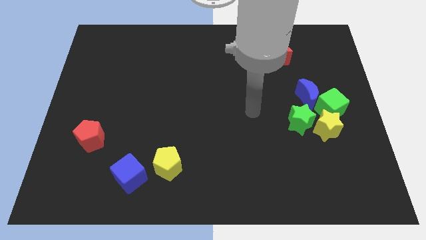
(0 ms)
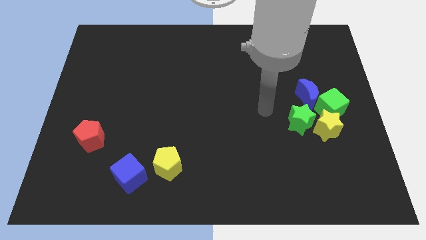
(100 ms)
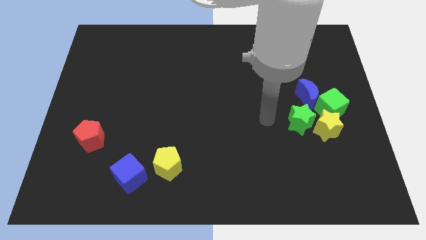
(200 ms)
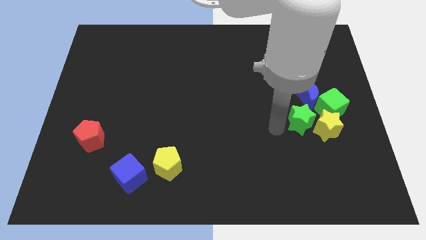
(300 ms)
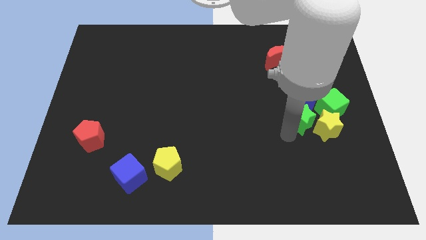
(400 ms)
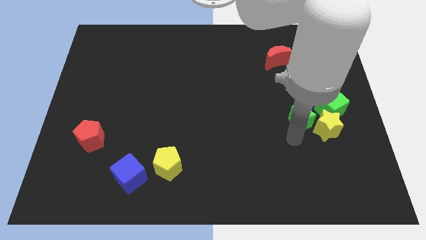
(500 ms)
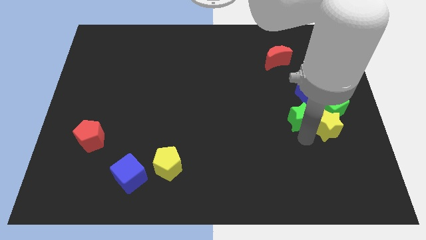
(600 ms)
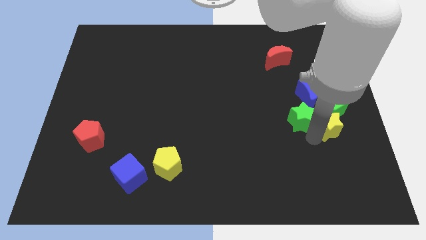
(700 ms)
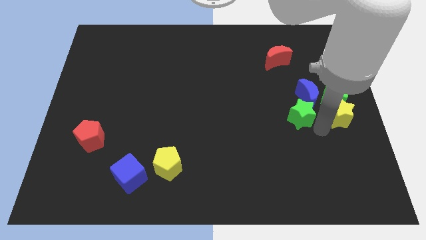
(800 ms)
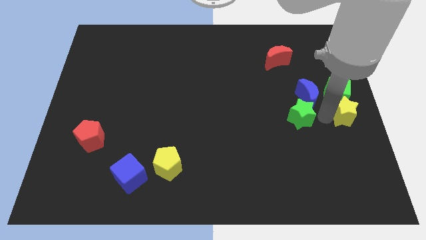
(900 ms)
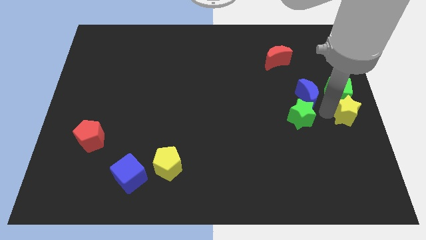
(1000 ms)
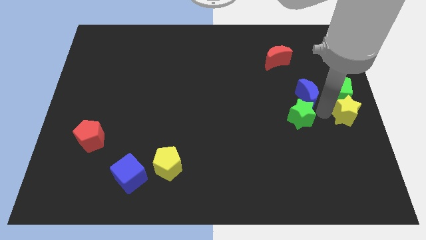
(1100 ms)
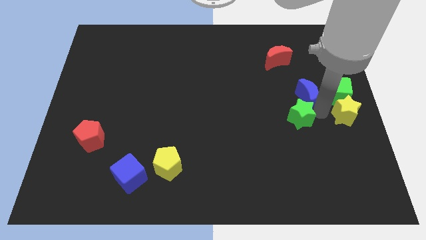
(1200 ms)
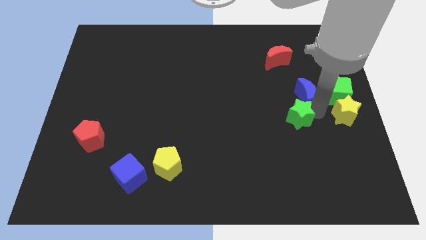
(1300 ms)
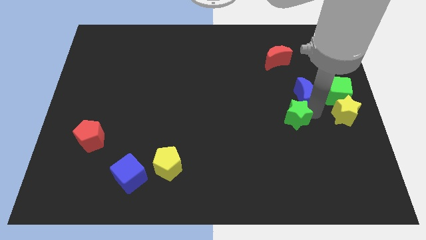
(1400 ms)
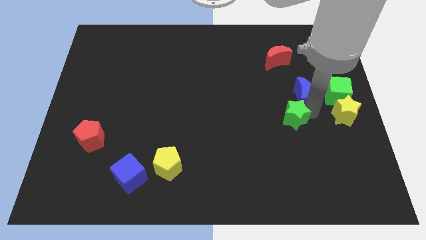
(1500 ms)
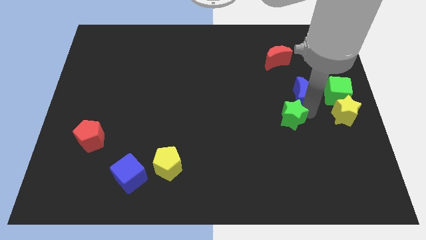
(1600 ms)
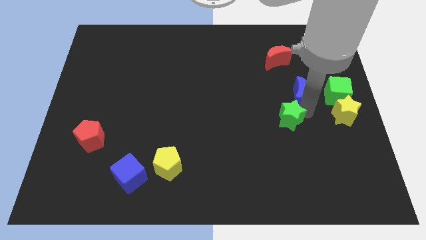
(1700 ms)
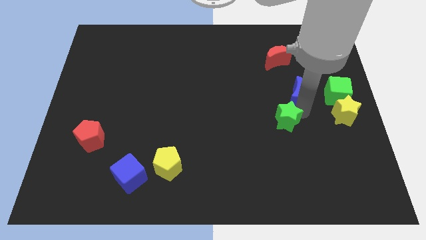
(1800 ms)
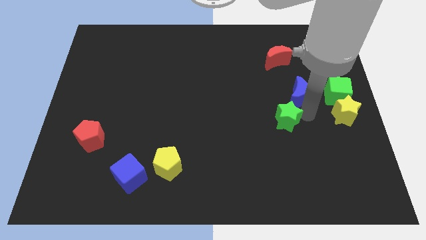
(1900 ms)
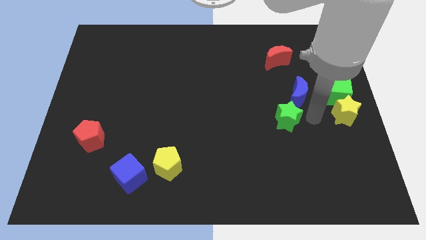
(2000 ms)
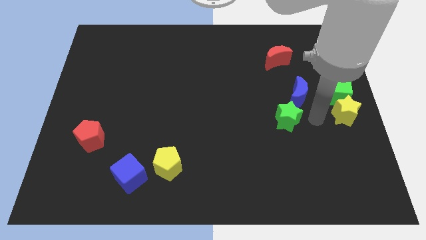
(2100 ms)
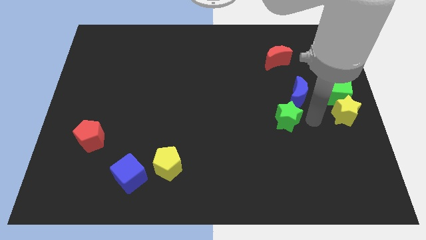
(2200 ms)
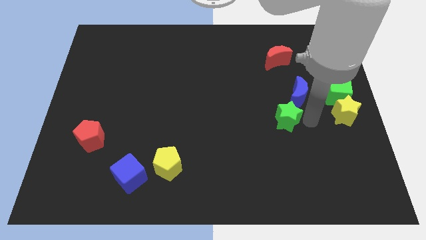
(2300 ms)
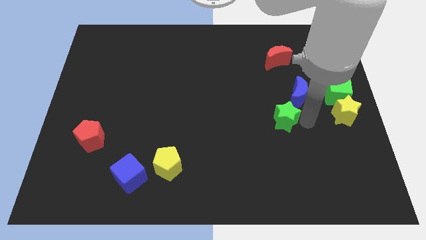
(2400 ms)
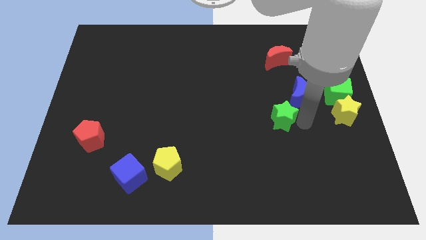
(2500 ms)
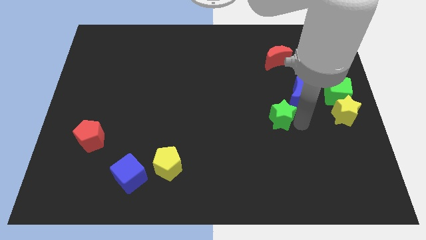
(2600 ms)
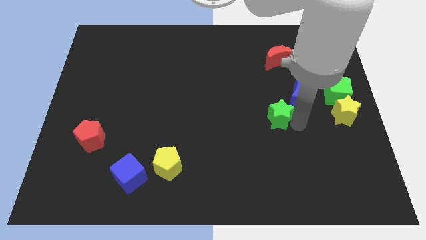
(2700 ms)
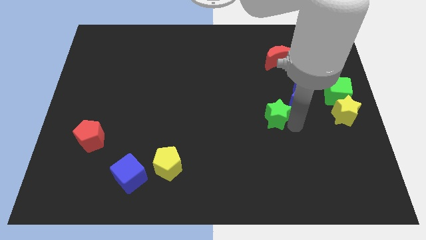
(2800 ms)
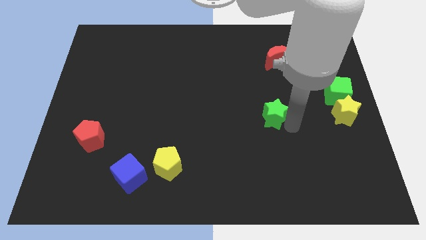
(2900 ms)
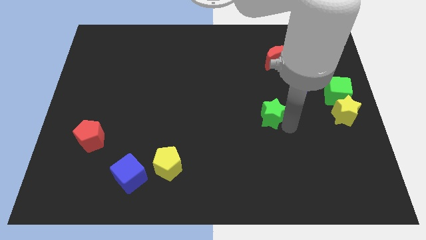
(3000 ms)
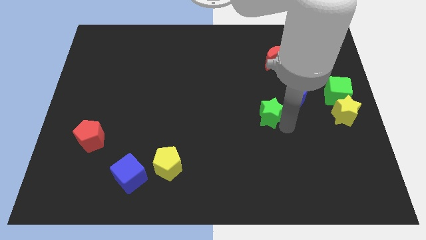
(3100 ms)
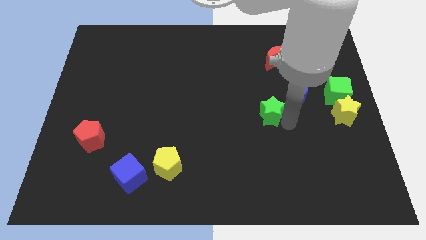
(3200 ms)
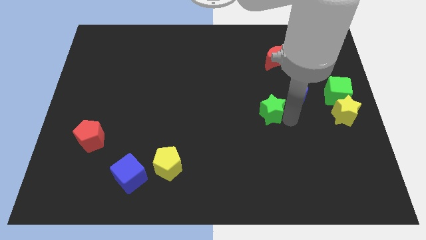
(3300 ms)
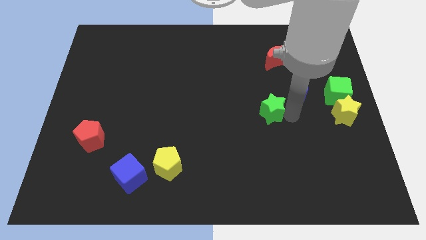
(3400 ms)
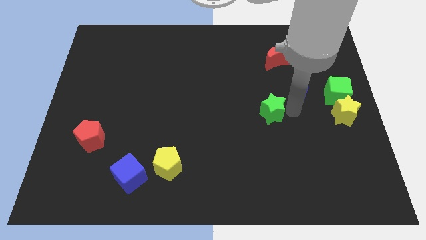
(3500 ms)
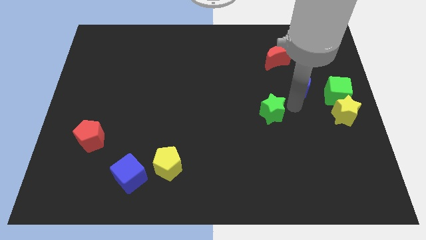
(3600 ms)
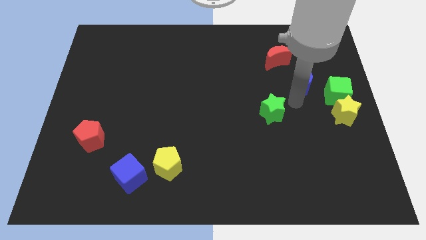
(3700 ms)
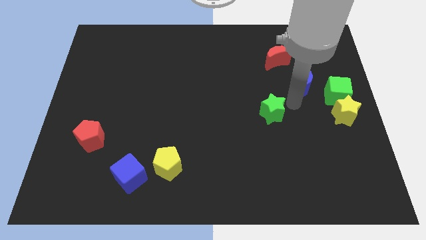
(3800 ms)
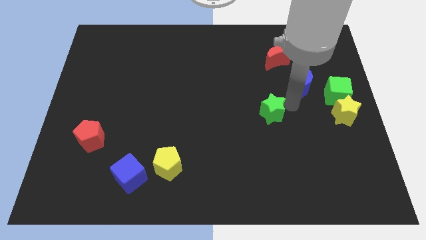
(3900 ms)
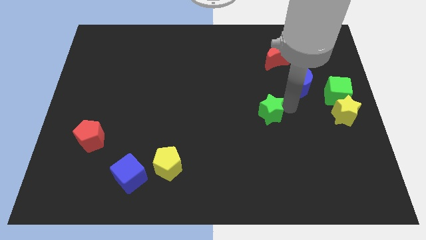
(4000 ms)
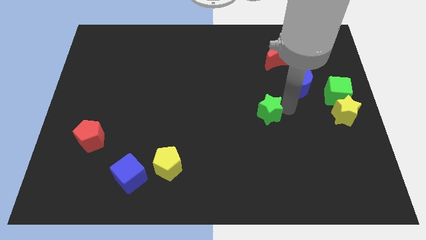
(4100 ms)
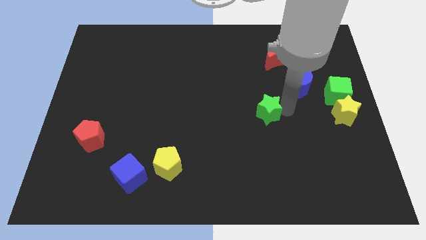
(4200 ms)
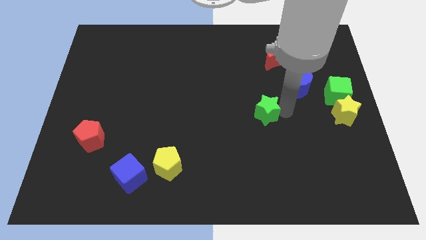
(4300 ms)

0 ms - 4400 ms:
slide the green star a bit to the left

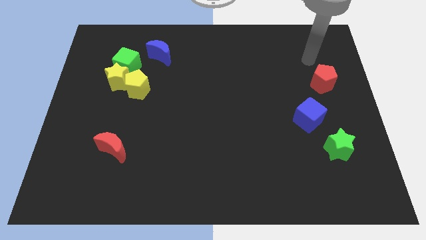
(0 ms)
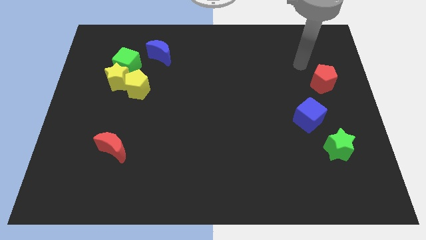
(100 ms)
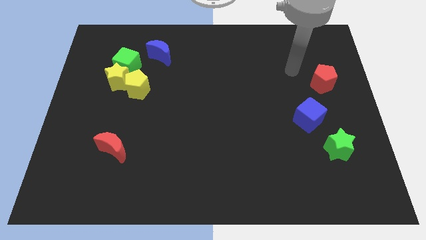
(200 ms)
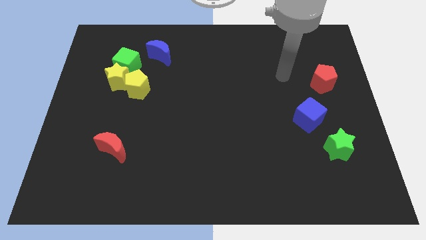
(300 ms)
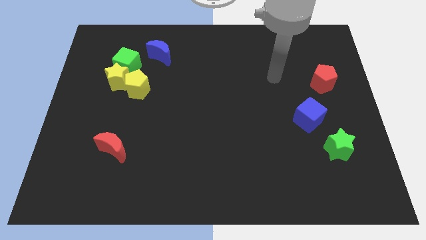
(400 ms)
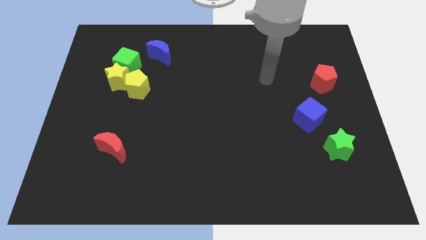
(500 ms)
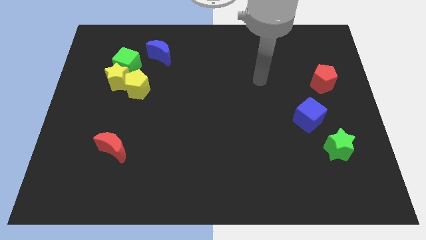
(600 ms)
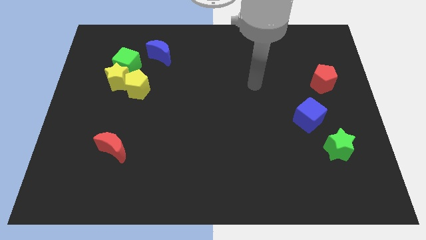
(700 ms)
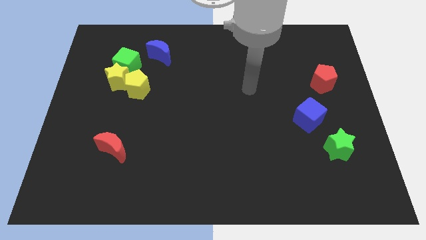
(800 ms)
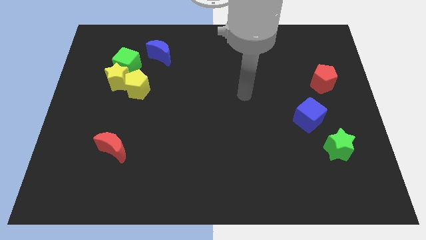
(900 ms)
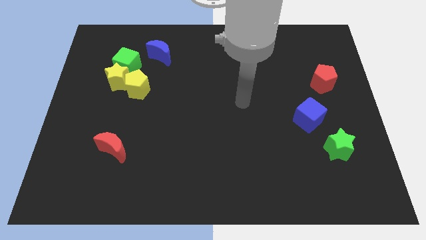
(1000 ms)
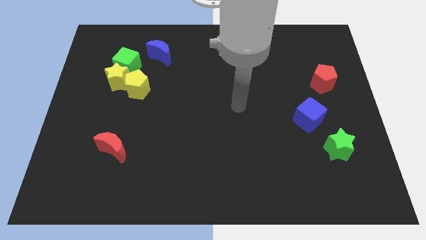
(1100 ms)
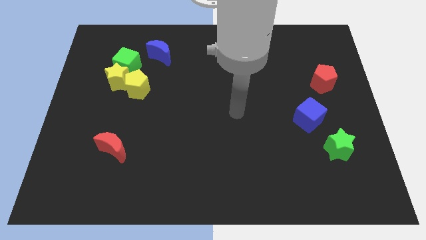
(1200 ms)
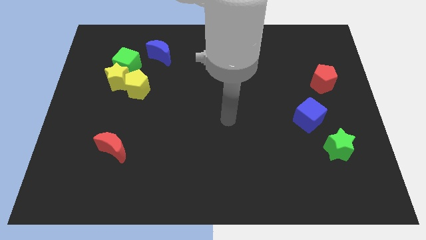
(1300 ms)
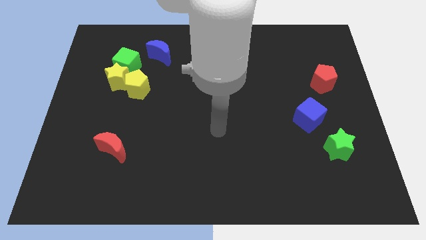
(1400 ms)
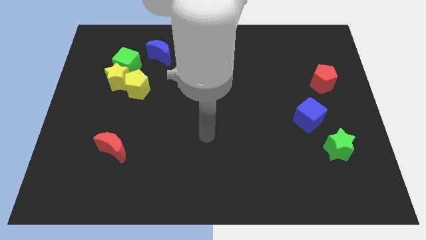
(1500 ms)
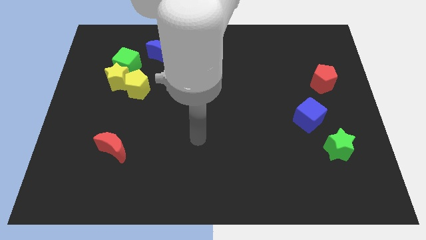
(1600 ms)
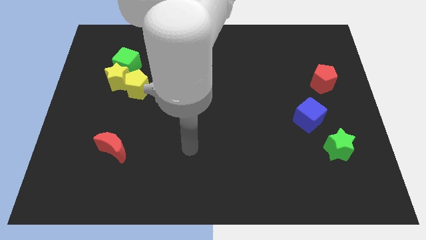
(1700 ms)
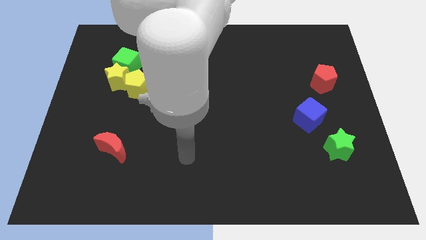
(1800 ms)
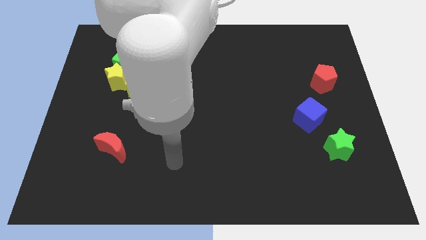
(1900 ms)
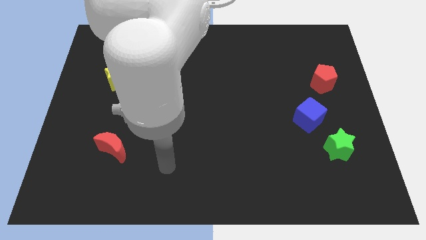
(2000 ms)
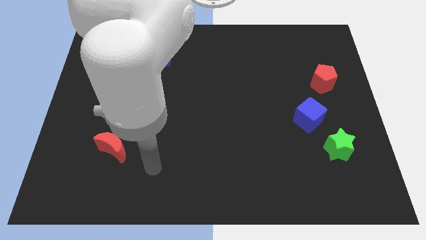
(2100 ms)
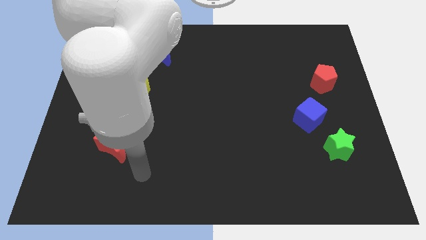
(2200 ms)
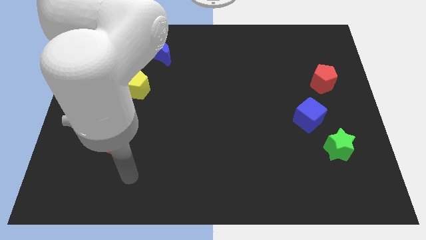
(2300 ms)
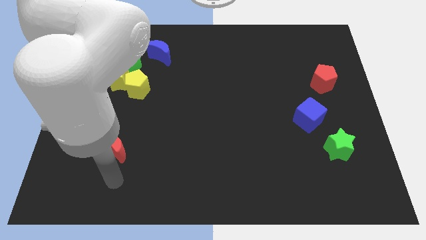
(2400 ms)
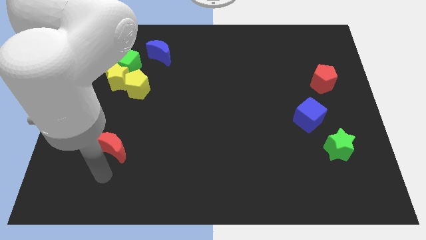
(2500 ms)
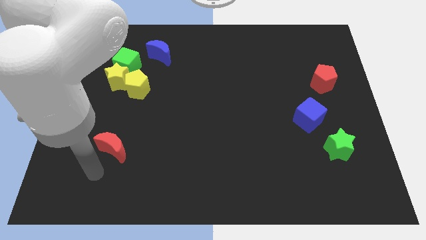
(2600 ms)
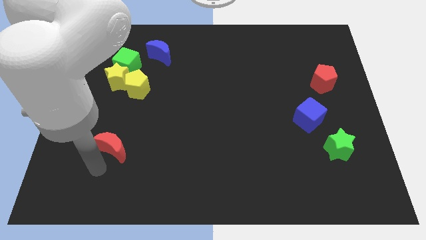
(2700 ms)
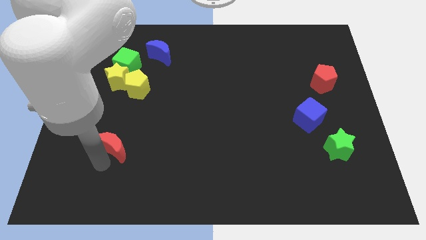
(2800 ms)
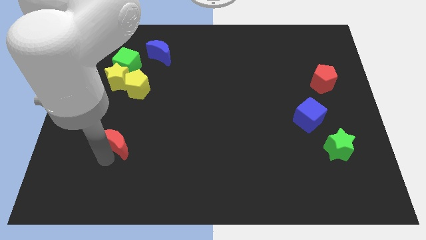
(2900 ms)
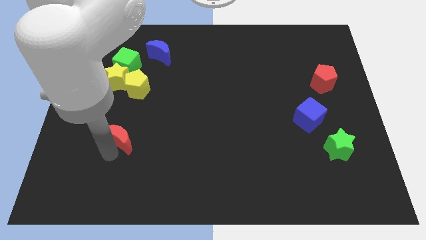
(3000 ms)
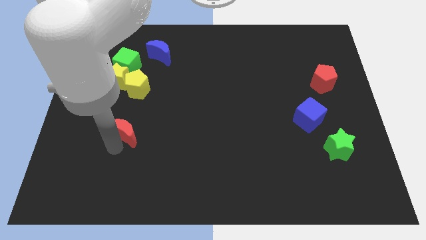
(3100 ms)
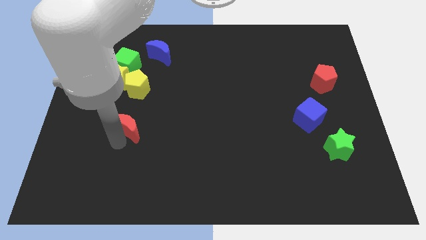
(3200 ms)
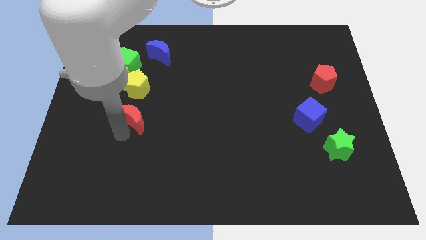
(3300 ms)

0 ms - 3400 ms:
slide the red moon a little bit up and then to the right

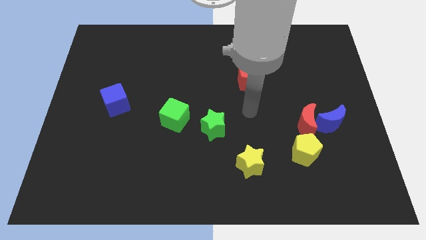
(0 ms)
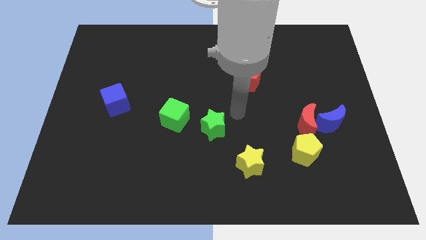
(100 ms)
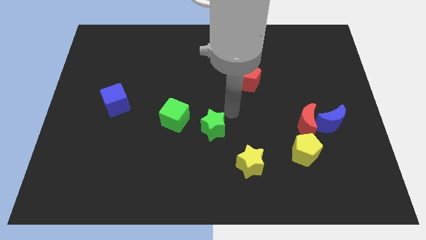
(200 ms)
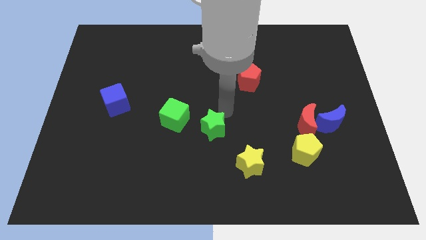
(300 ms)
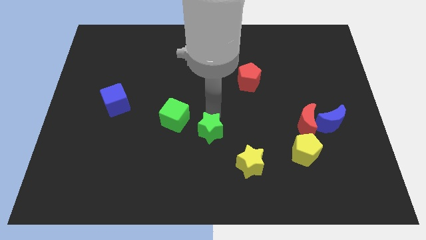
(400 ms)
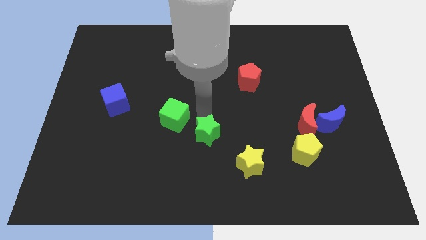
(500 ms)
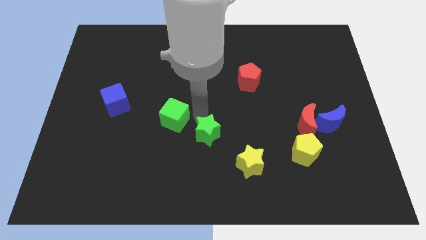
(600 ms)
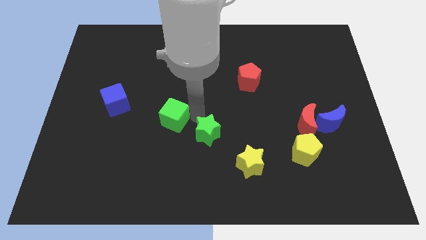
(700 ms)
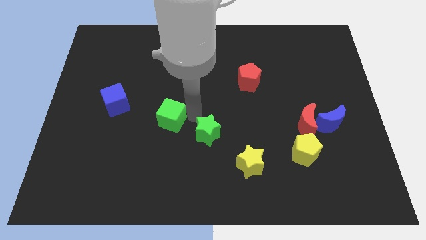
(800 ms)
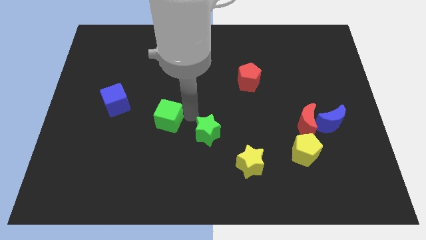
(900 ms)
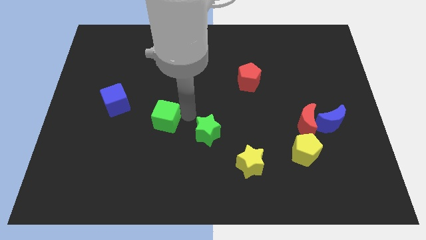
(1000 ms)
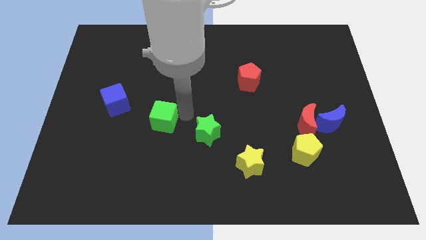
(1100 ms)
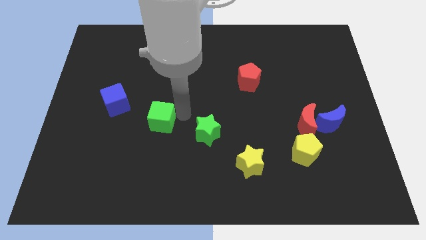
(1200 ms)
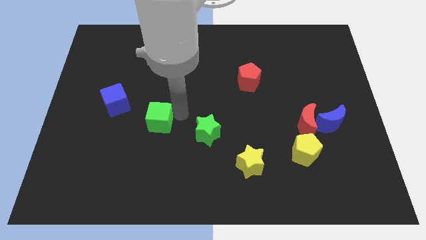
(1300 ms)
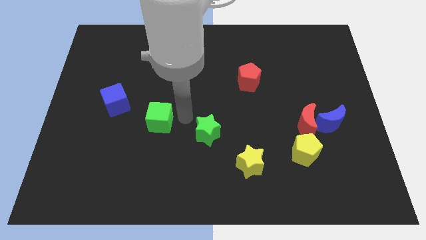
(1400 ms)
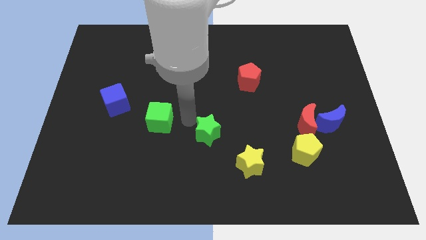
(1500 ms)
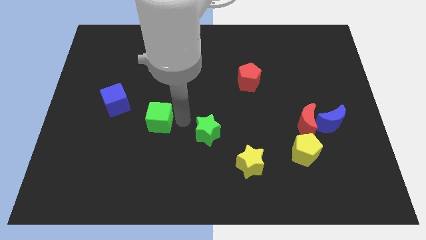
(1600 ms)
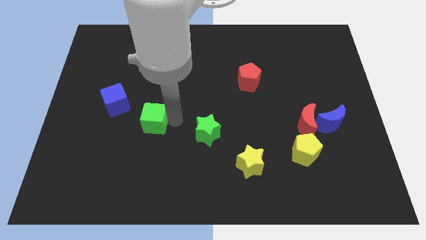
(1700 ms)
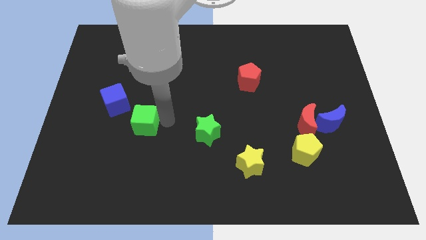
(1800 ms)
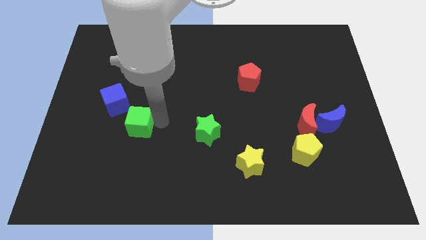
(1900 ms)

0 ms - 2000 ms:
move the green cube left somewhat
